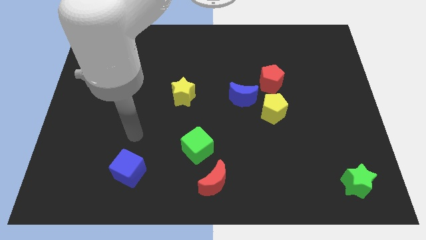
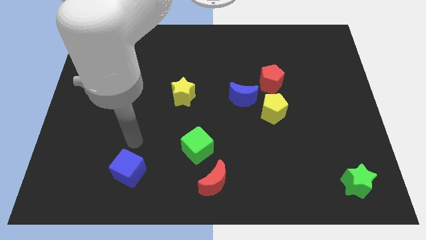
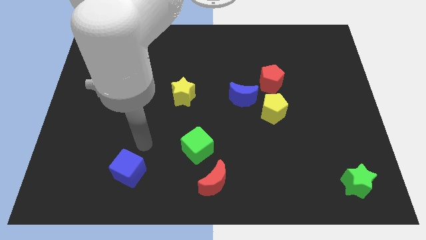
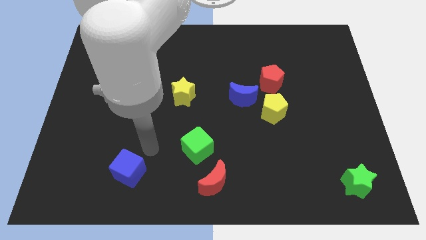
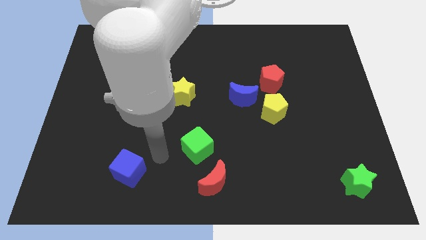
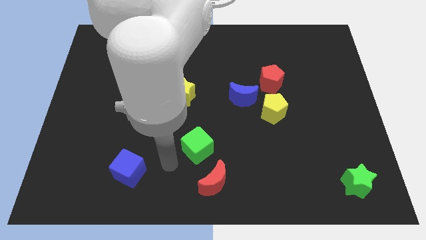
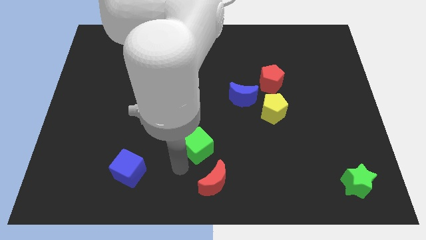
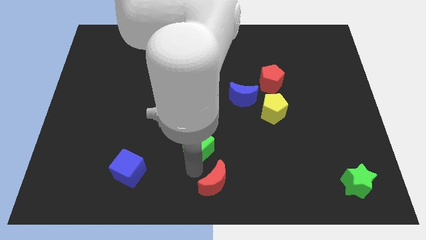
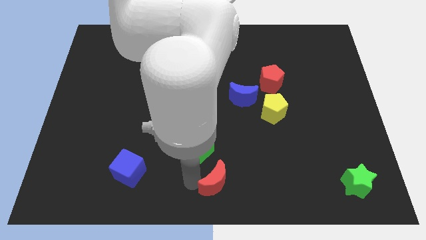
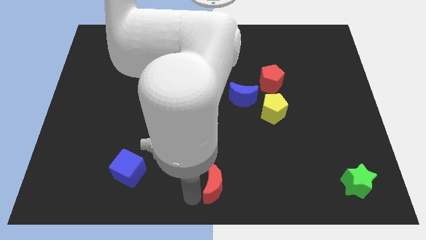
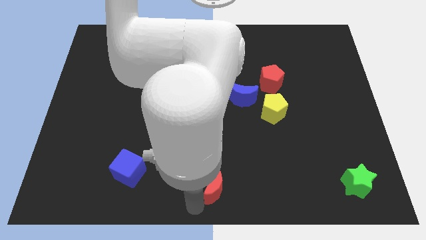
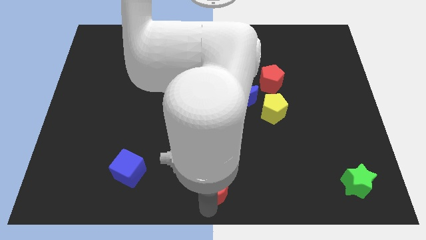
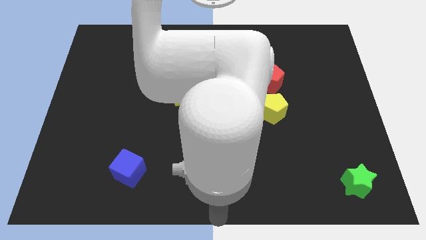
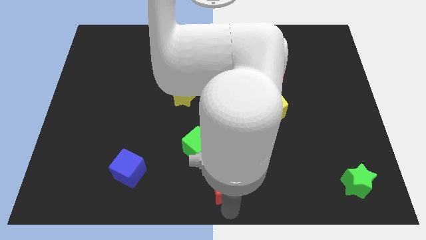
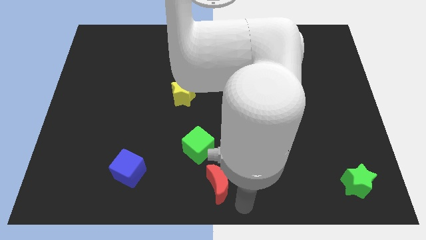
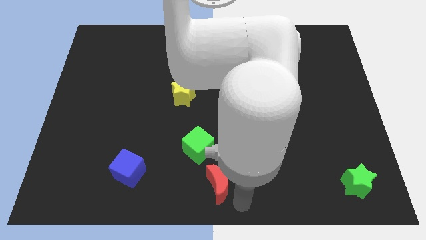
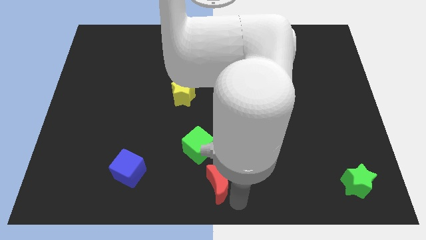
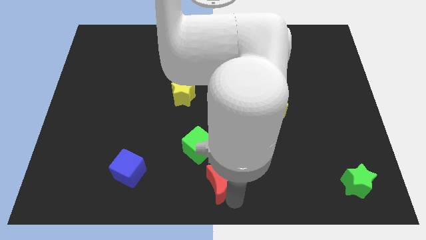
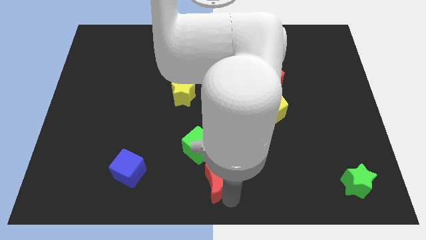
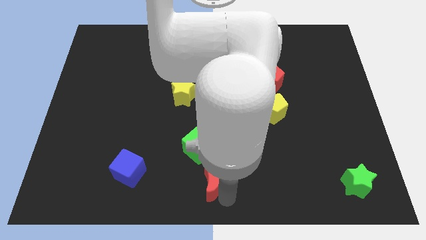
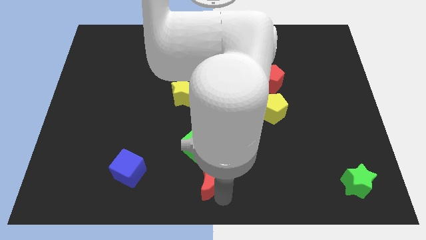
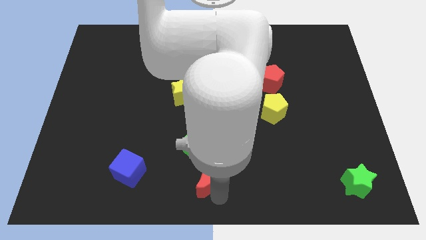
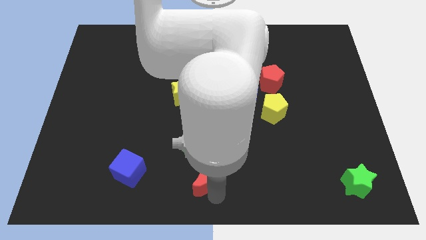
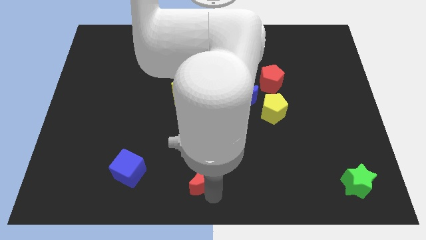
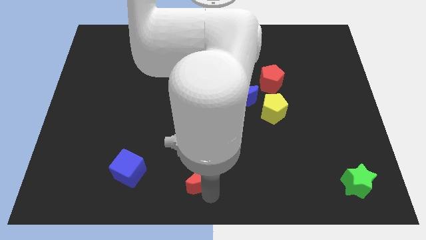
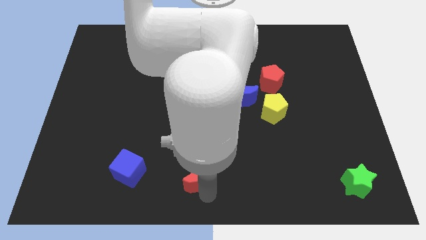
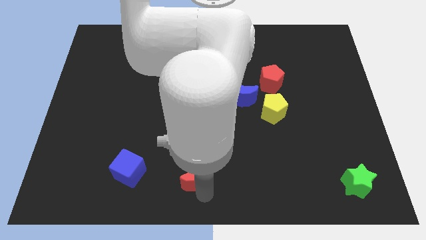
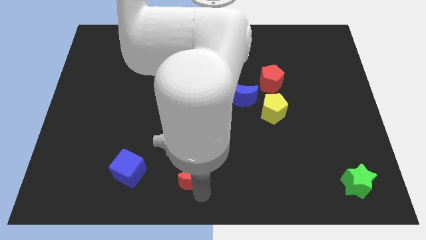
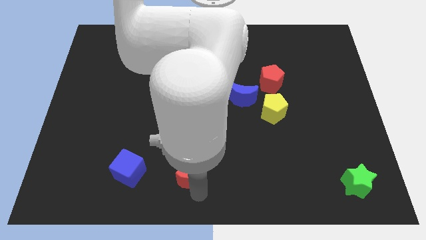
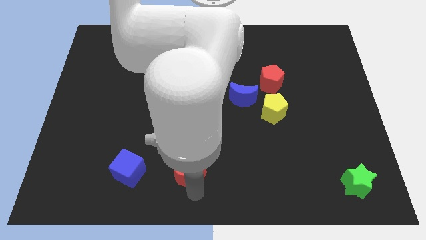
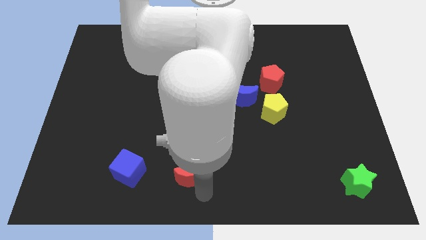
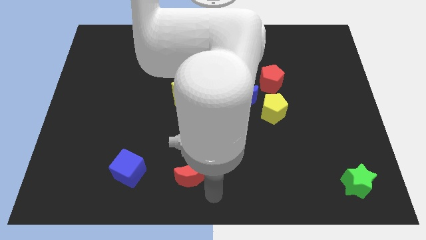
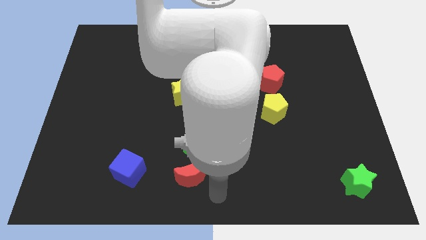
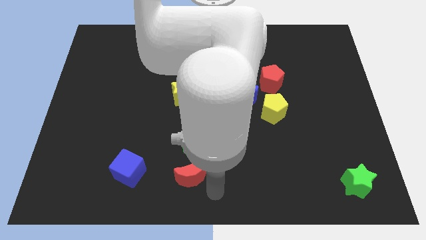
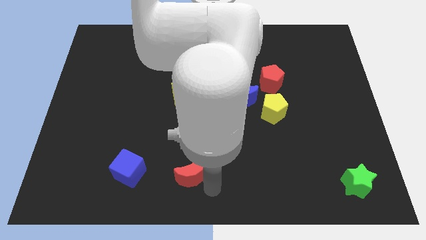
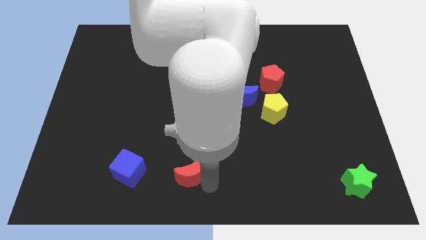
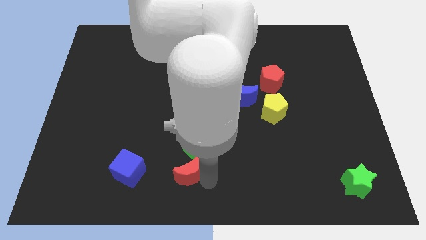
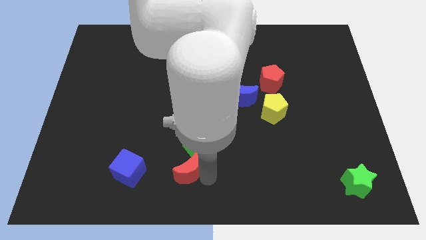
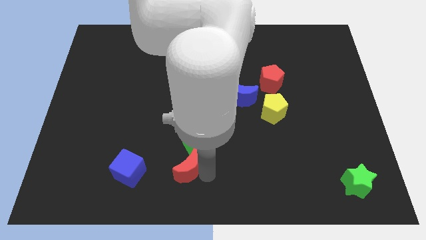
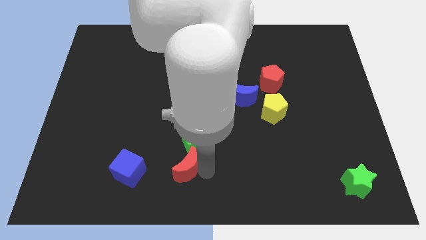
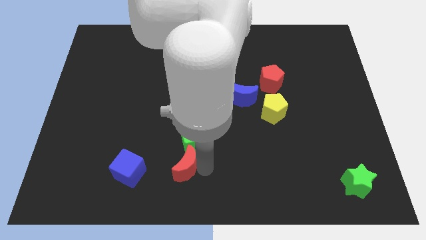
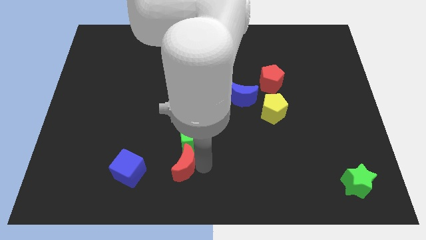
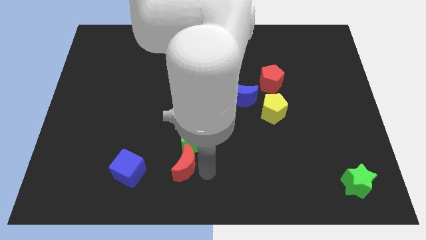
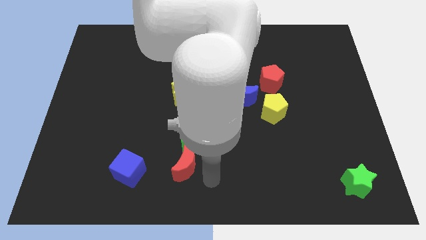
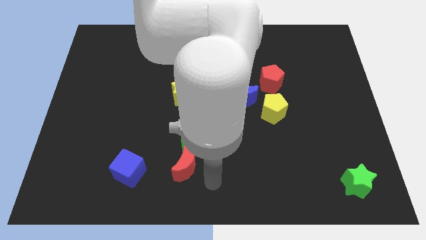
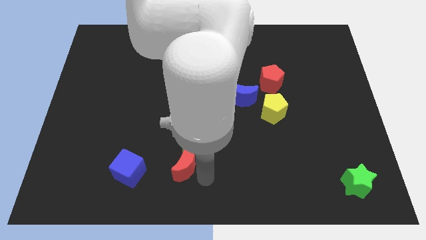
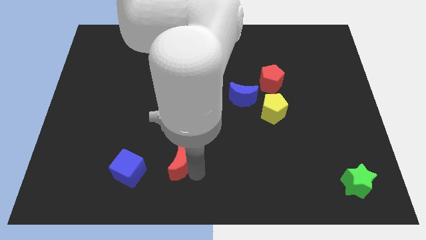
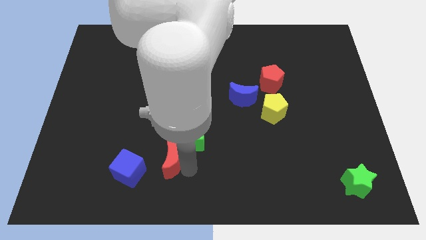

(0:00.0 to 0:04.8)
push the red moon diagonally up and to the right of the blue cube

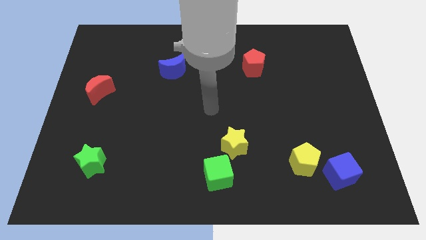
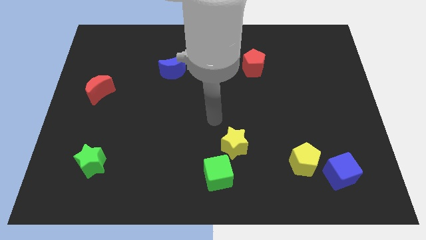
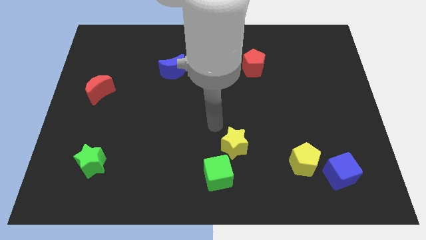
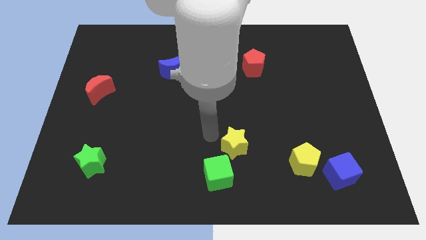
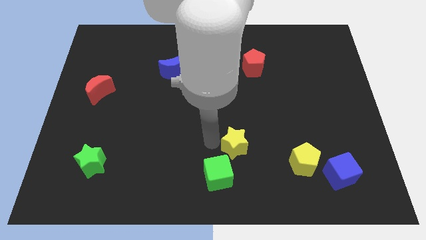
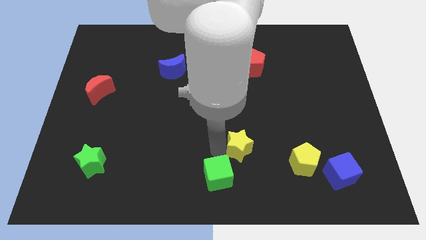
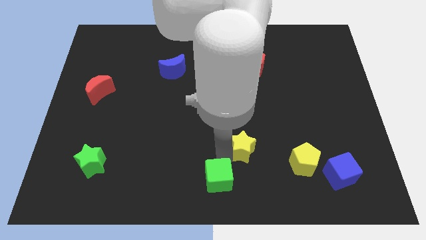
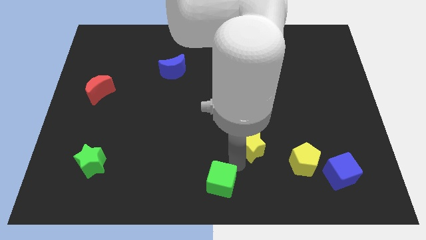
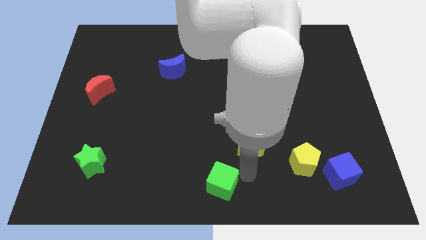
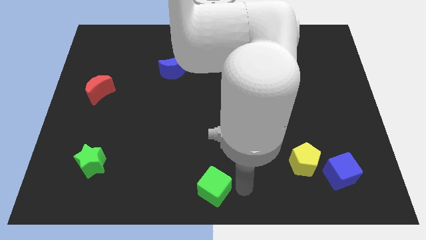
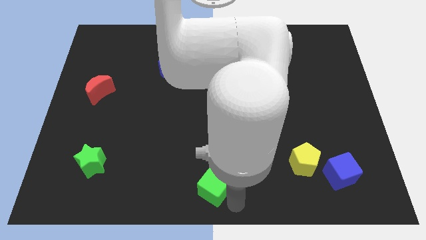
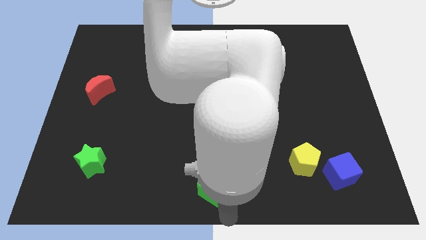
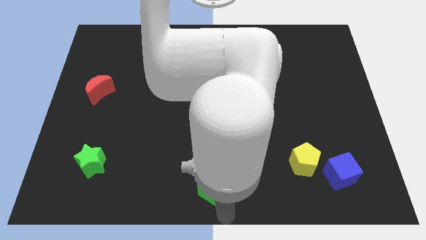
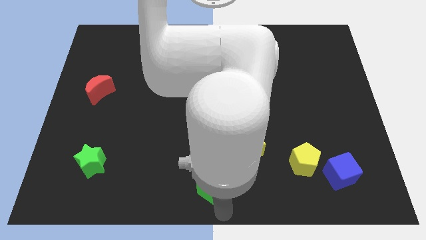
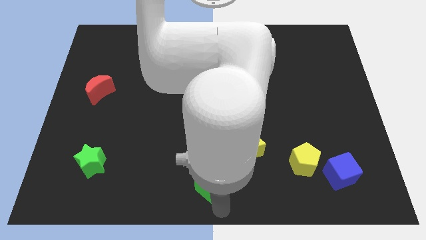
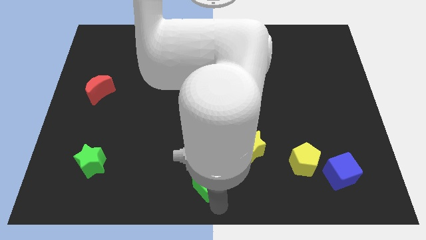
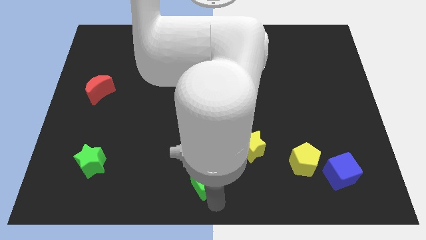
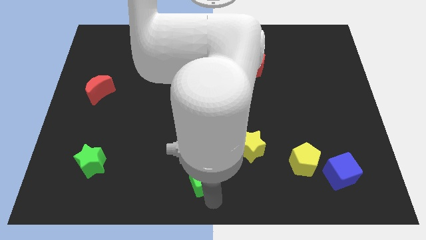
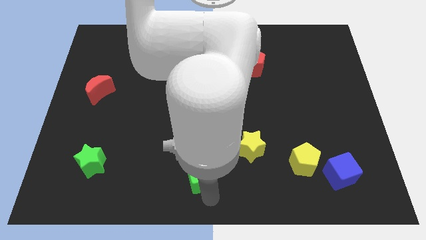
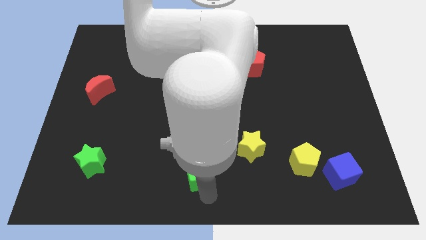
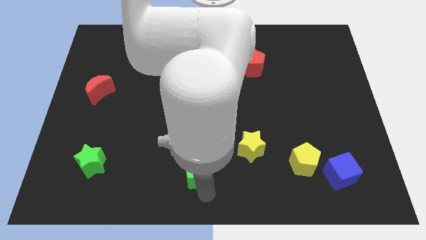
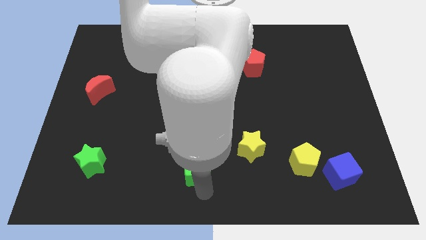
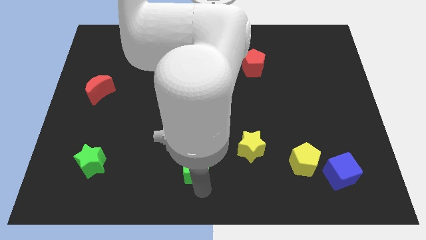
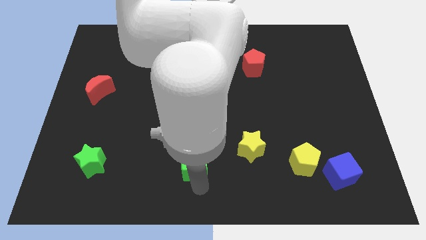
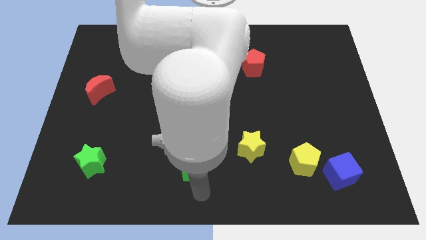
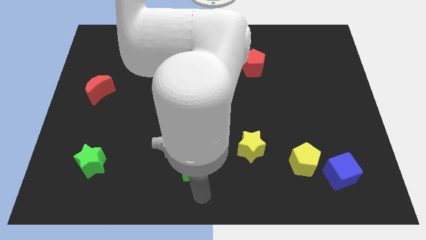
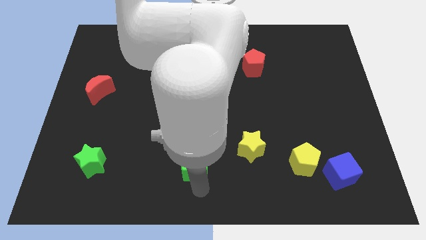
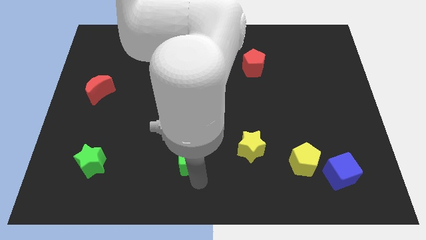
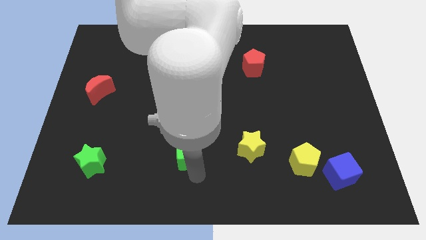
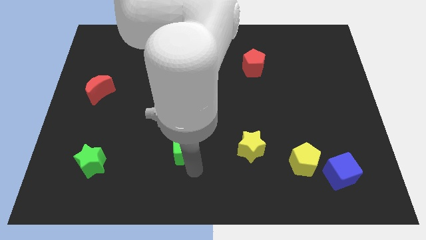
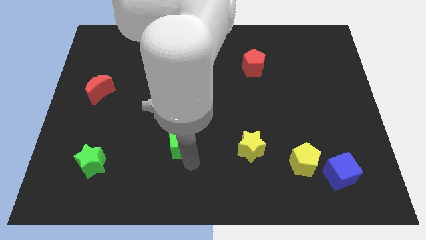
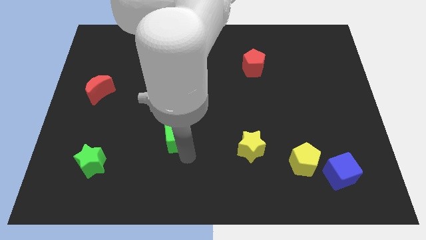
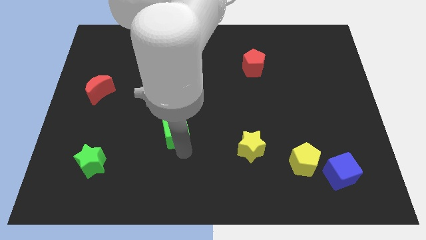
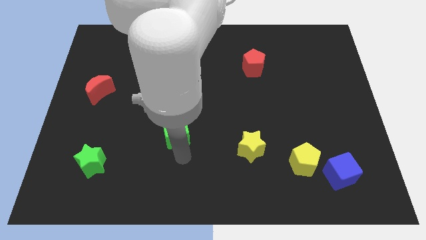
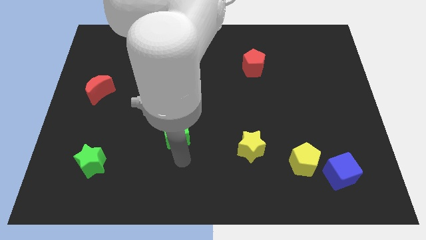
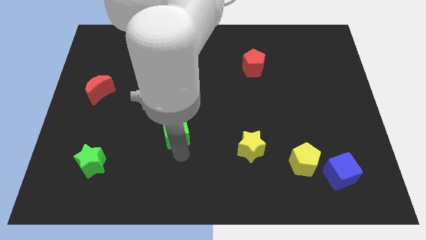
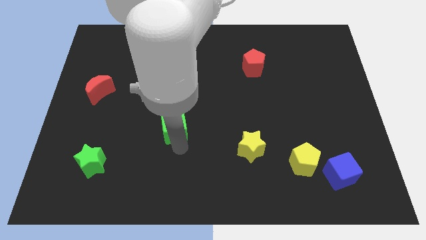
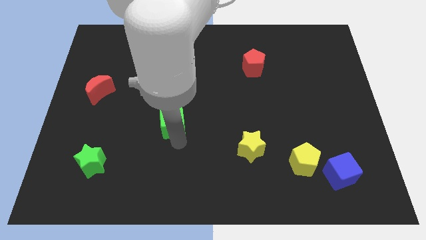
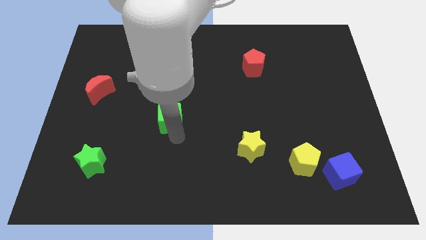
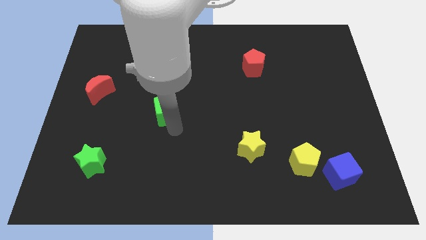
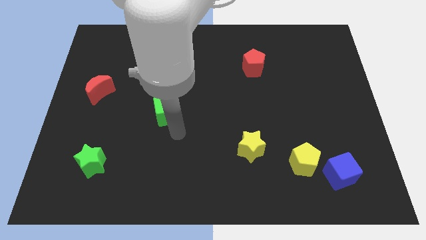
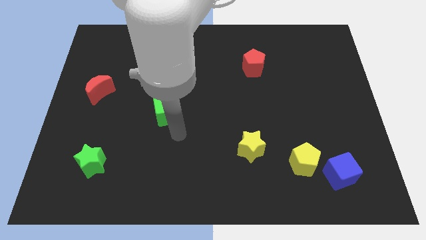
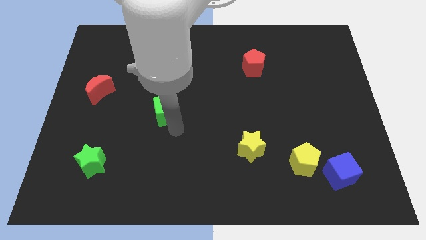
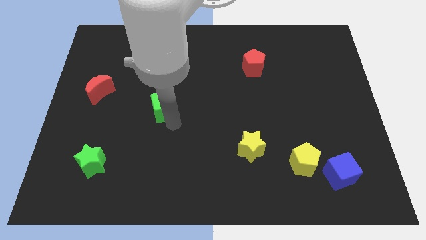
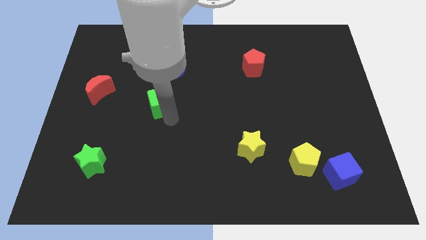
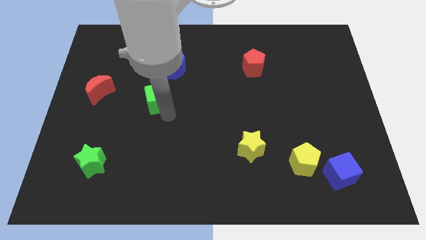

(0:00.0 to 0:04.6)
push the green cube to the bottom left side of the blue moon
